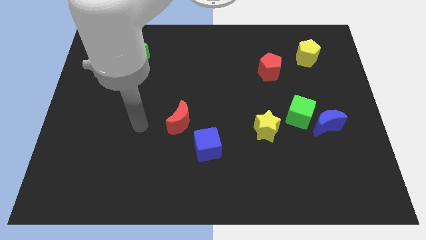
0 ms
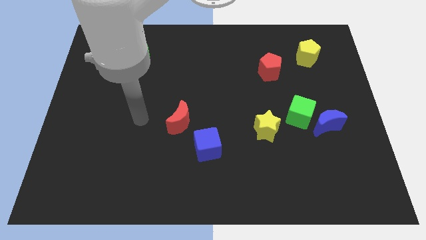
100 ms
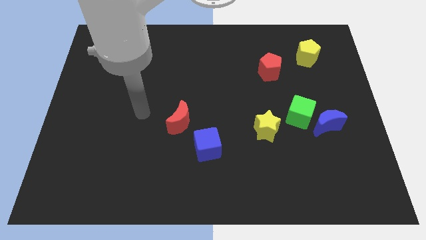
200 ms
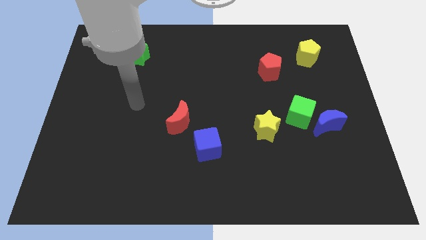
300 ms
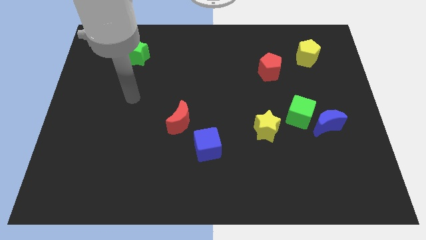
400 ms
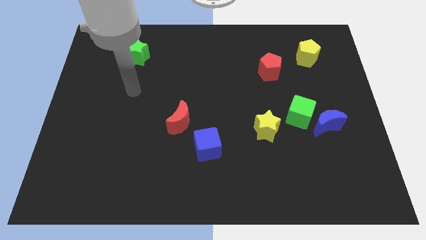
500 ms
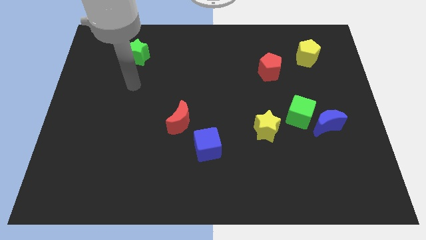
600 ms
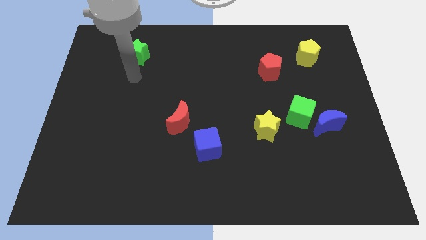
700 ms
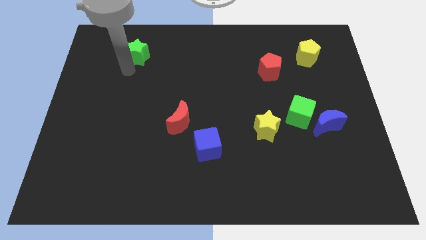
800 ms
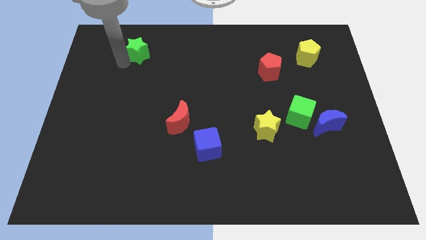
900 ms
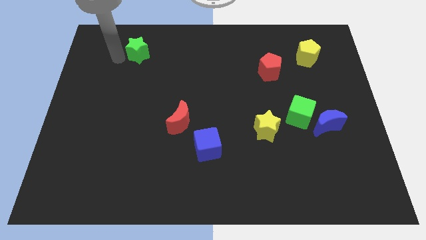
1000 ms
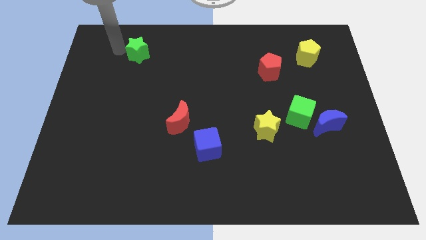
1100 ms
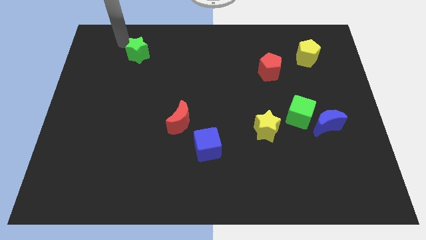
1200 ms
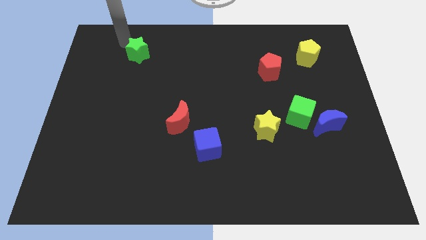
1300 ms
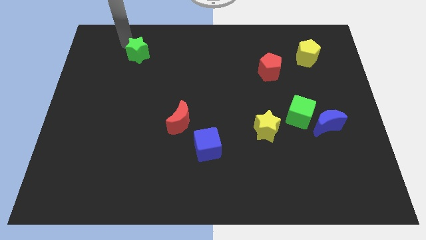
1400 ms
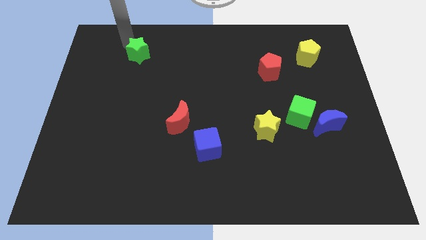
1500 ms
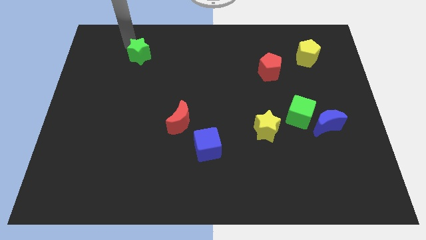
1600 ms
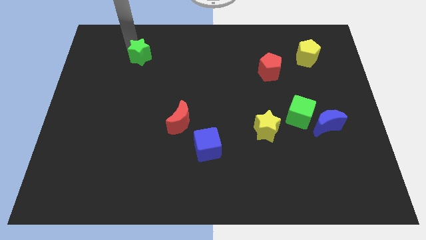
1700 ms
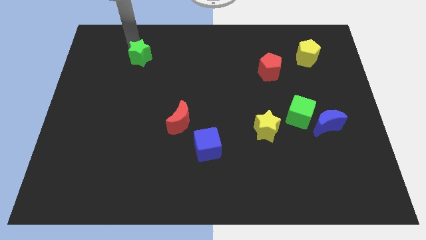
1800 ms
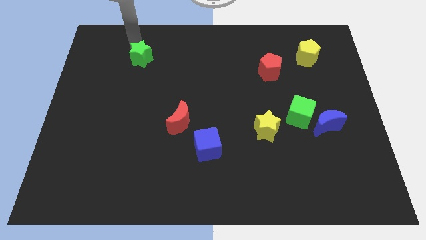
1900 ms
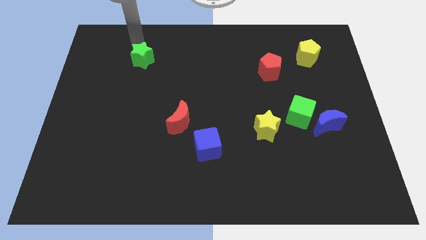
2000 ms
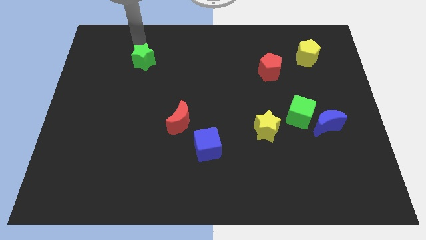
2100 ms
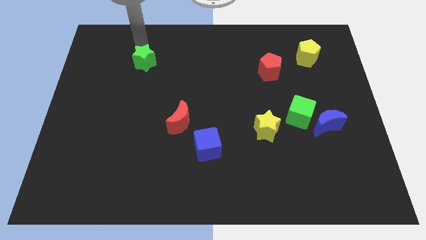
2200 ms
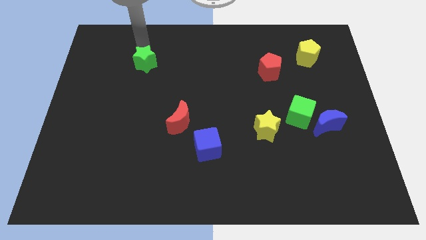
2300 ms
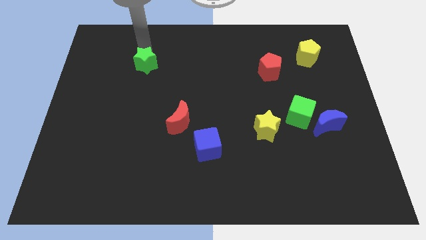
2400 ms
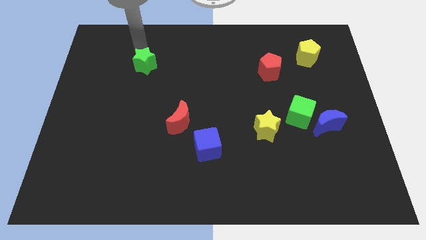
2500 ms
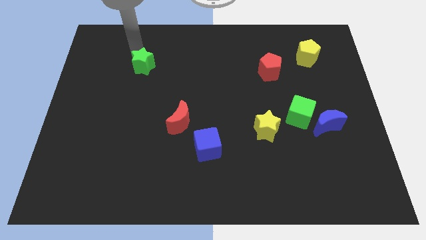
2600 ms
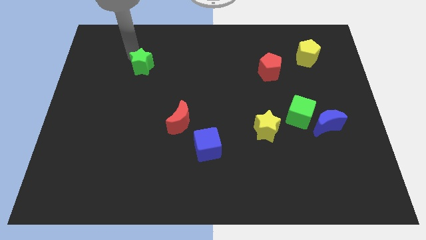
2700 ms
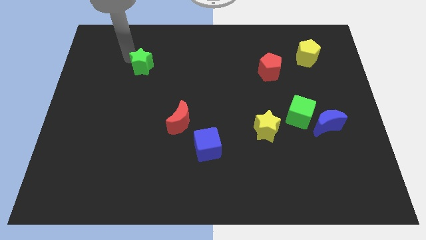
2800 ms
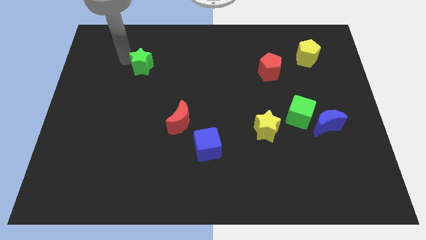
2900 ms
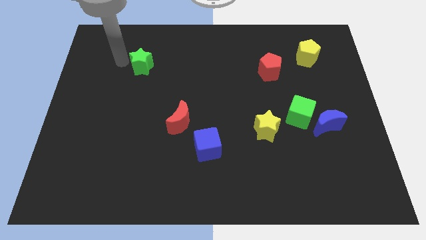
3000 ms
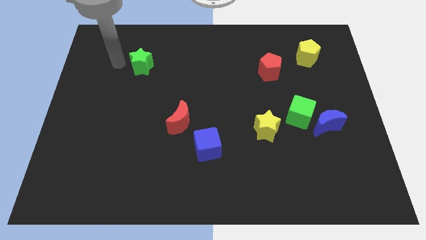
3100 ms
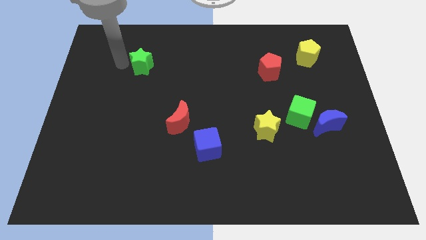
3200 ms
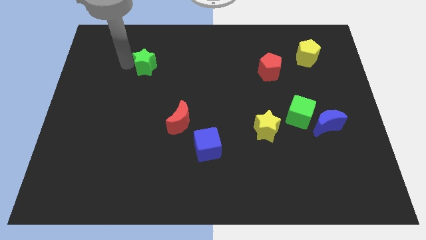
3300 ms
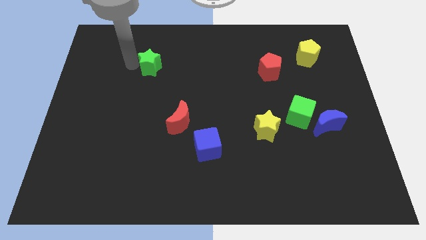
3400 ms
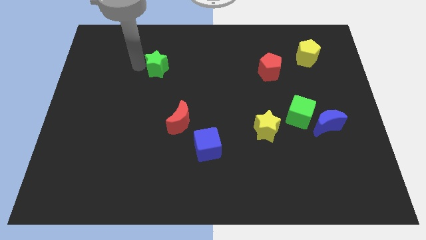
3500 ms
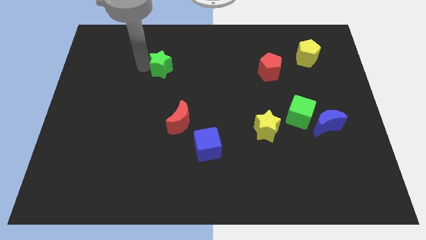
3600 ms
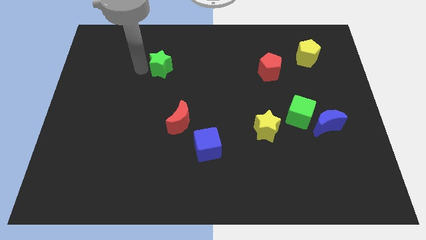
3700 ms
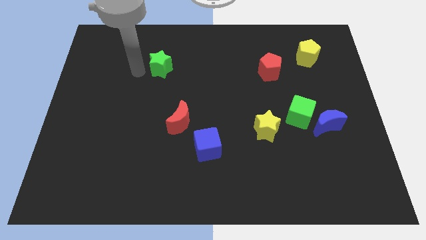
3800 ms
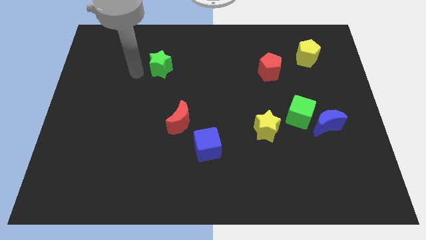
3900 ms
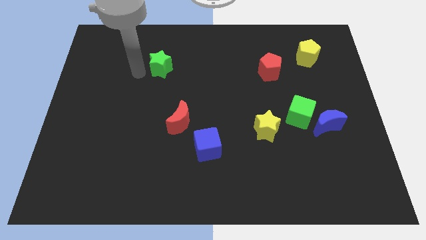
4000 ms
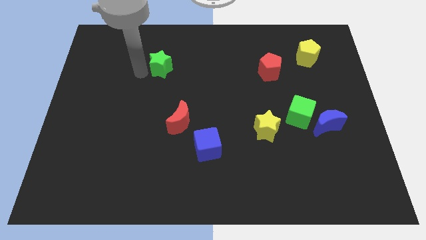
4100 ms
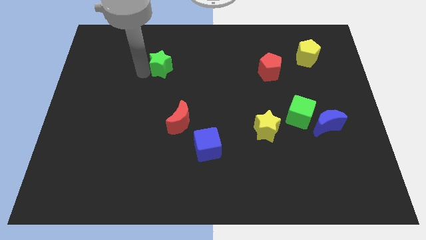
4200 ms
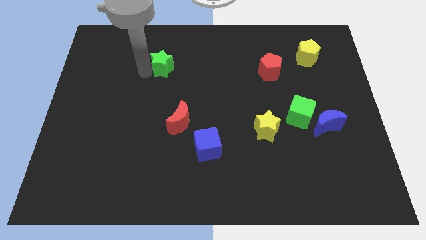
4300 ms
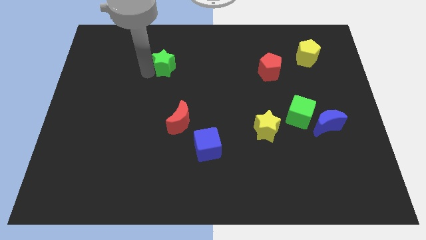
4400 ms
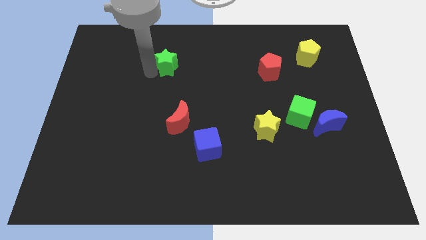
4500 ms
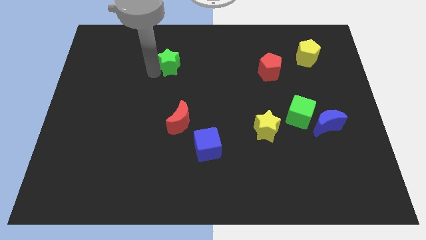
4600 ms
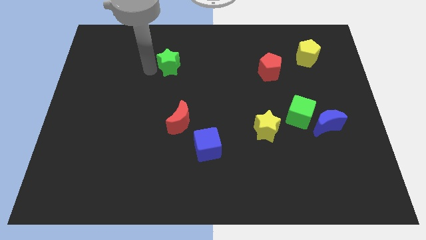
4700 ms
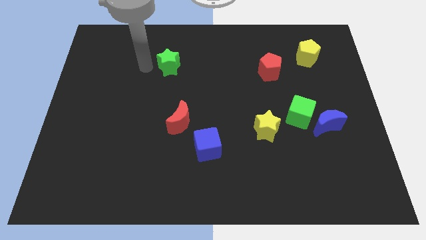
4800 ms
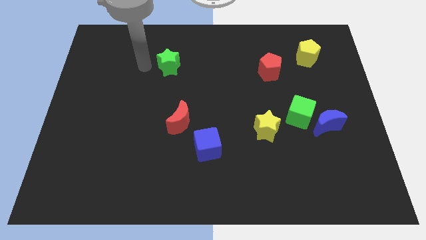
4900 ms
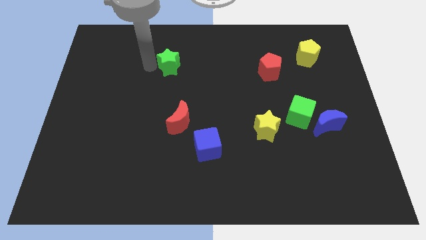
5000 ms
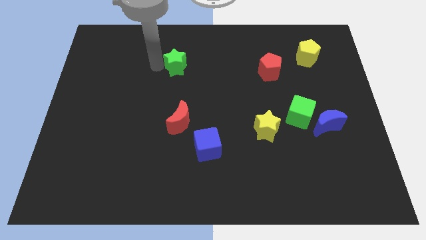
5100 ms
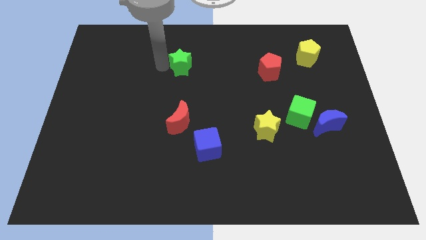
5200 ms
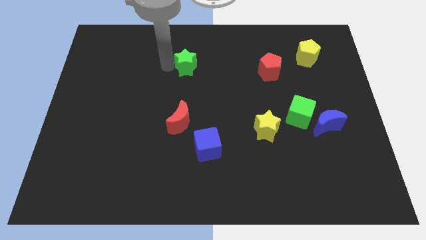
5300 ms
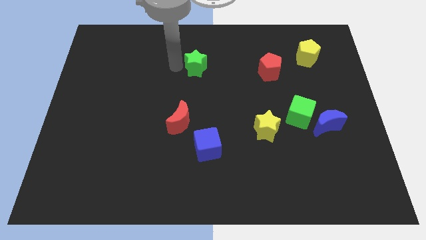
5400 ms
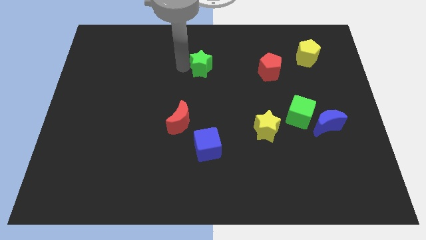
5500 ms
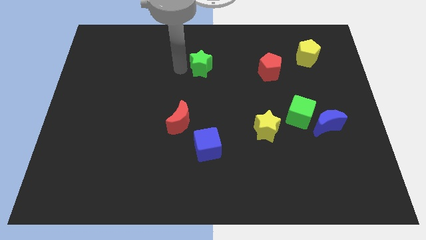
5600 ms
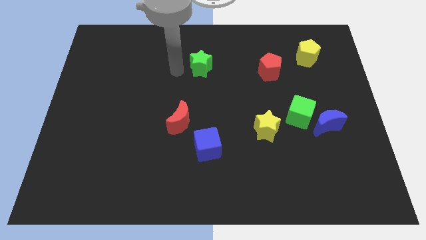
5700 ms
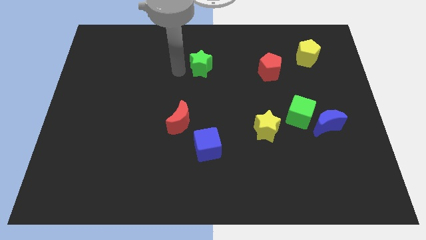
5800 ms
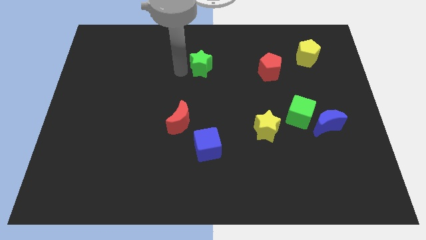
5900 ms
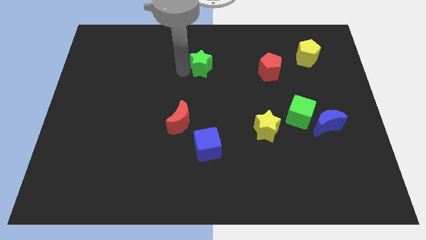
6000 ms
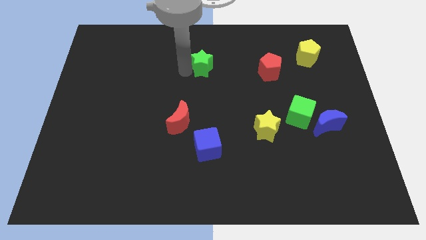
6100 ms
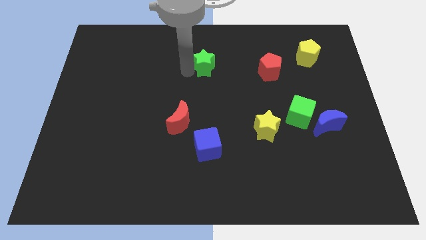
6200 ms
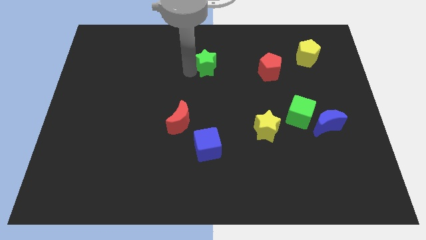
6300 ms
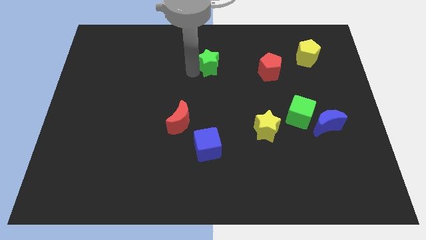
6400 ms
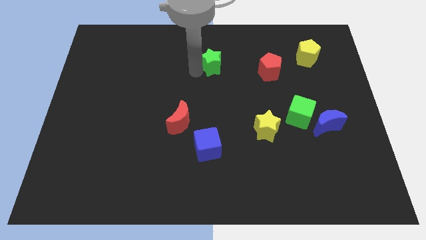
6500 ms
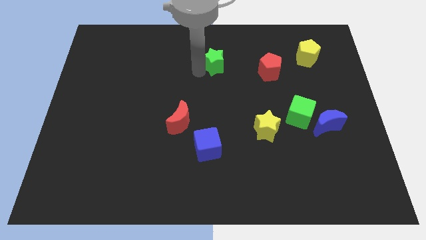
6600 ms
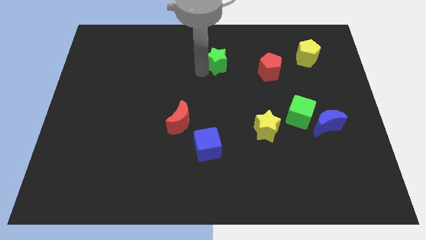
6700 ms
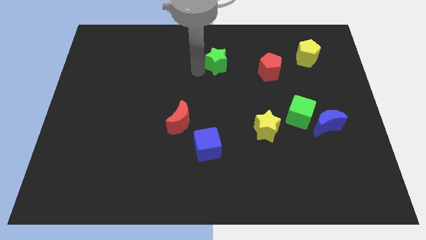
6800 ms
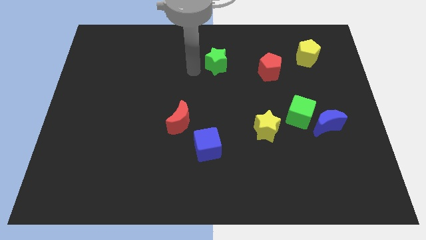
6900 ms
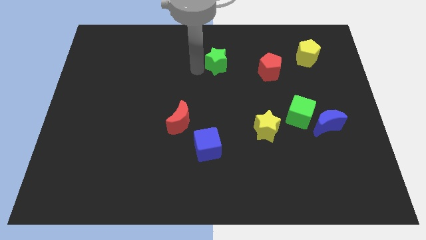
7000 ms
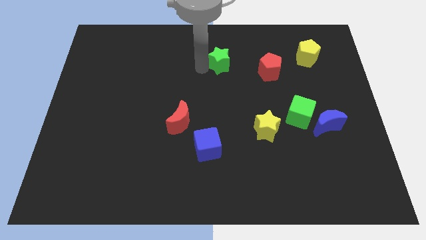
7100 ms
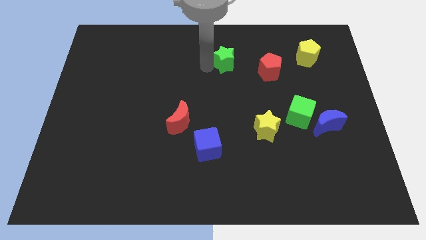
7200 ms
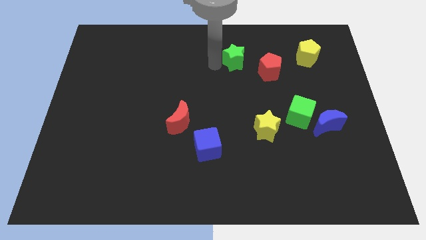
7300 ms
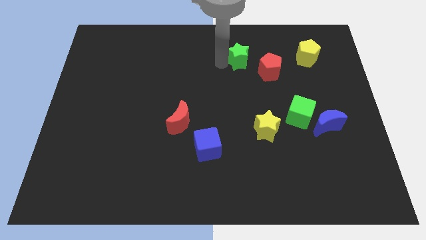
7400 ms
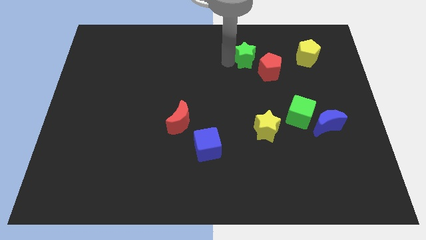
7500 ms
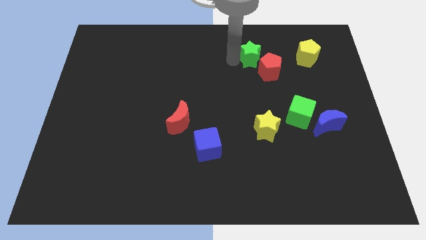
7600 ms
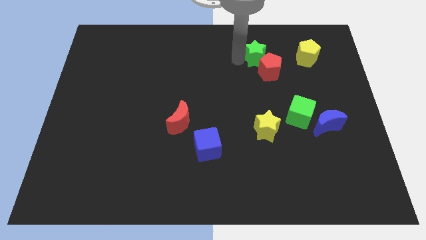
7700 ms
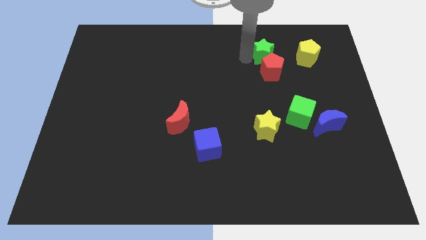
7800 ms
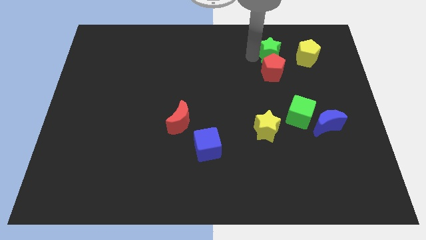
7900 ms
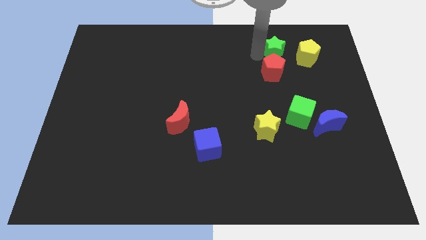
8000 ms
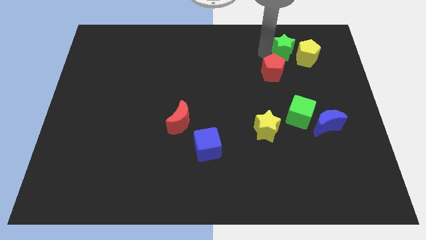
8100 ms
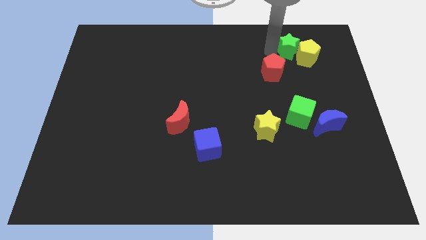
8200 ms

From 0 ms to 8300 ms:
move the green star close to the yellow pentagon
